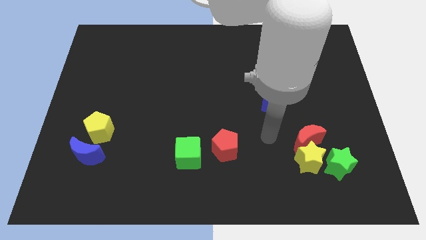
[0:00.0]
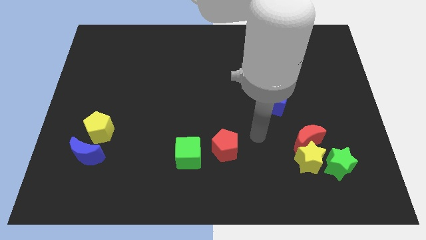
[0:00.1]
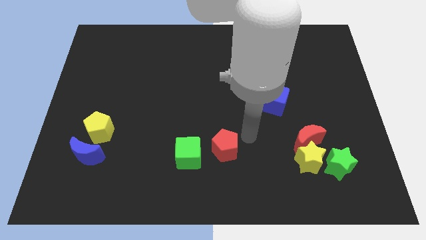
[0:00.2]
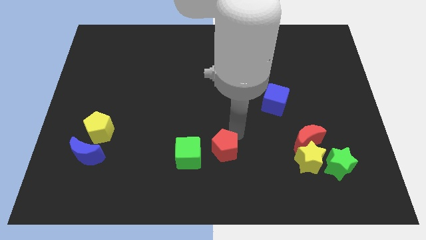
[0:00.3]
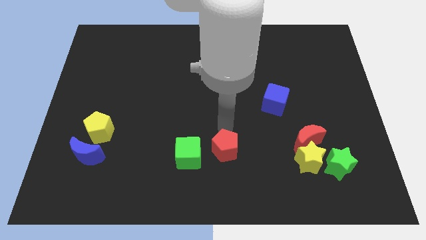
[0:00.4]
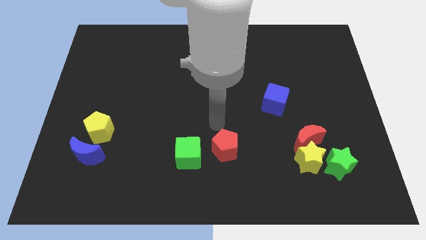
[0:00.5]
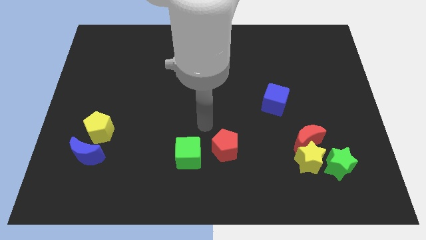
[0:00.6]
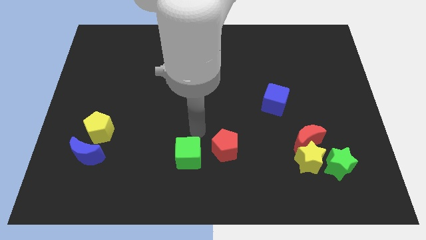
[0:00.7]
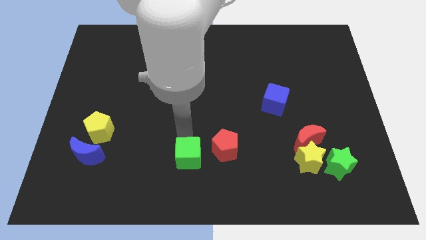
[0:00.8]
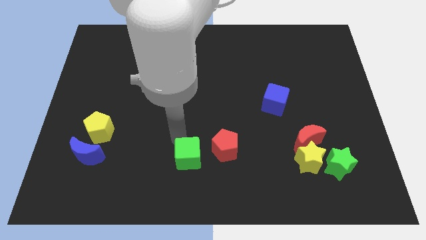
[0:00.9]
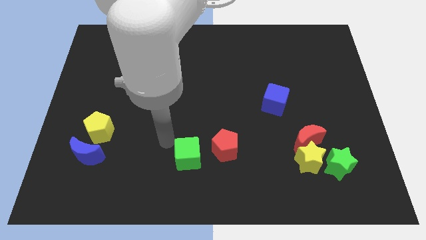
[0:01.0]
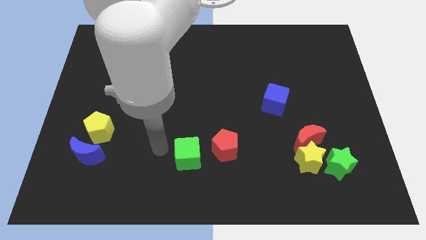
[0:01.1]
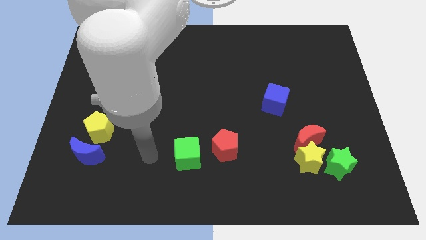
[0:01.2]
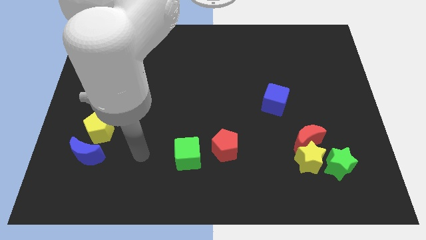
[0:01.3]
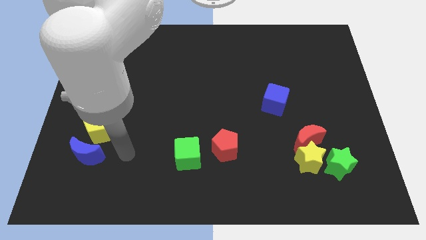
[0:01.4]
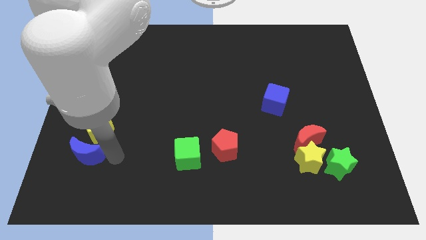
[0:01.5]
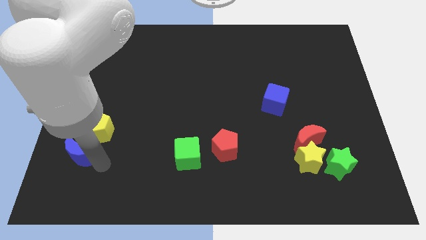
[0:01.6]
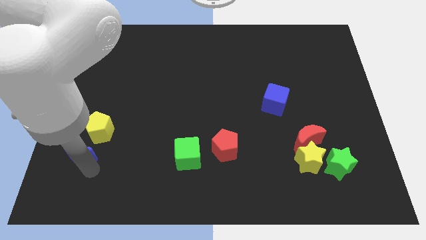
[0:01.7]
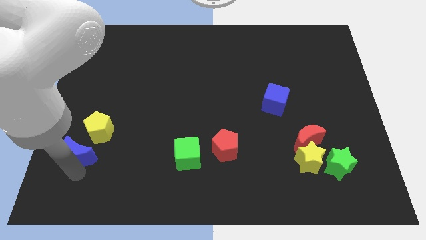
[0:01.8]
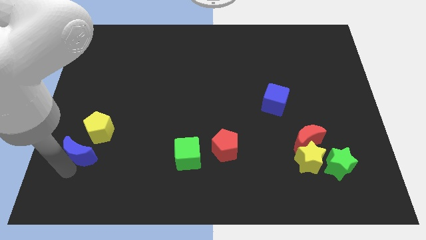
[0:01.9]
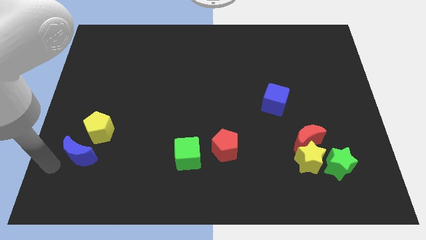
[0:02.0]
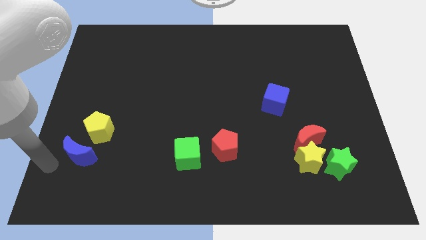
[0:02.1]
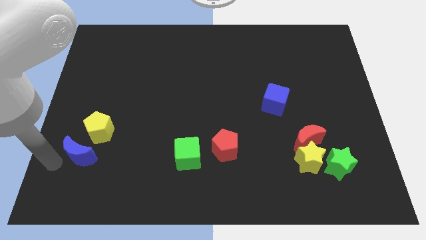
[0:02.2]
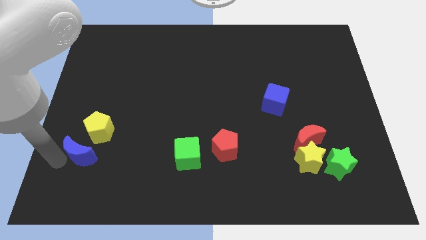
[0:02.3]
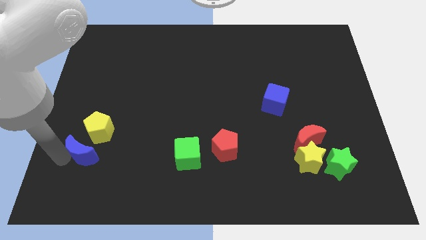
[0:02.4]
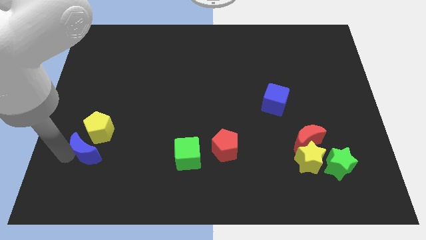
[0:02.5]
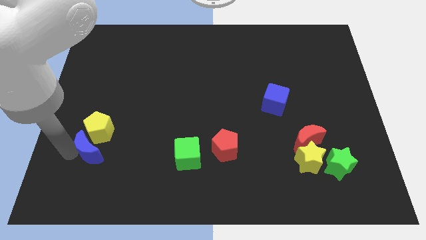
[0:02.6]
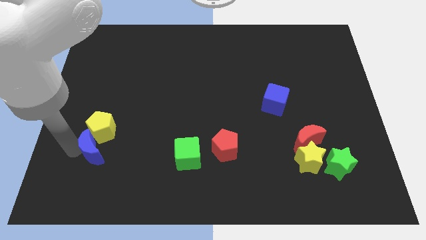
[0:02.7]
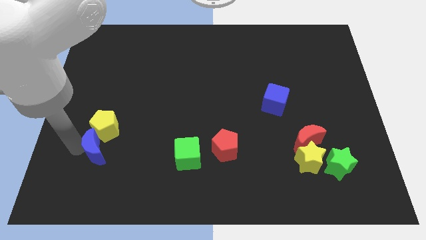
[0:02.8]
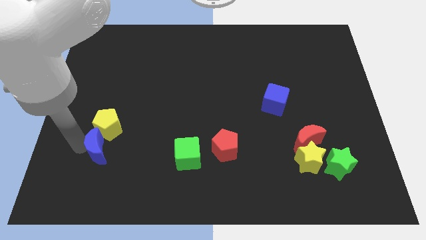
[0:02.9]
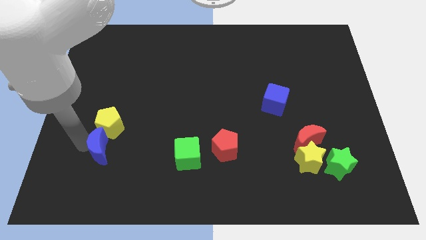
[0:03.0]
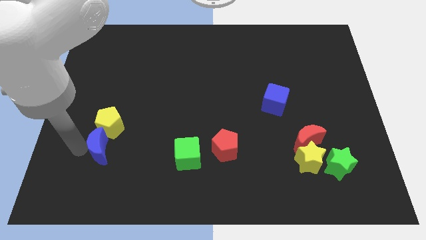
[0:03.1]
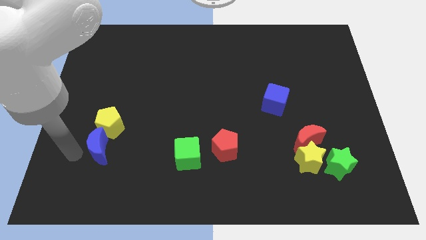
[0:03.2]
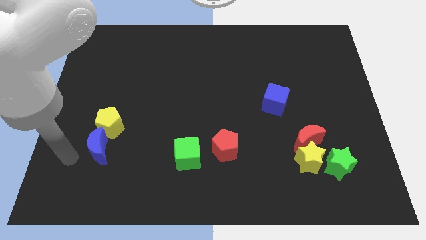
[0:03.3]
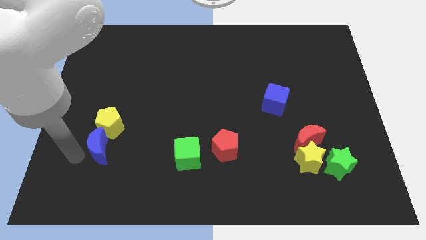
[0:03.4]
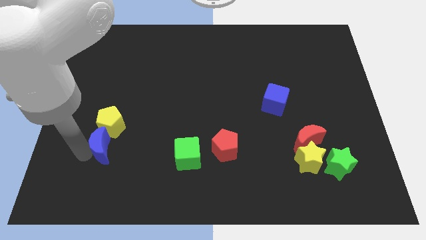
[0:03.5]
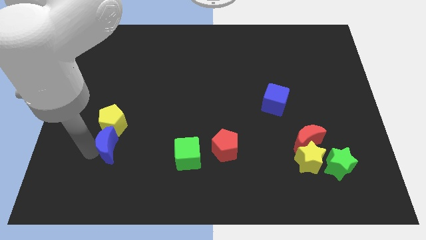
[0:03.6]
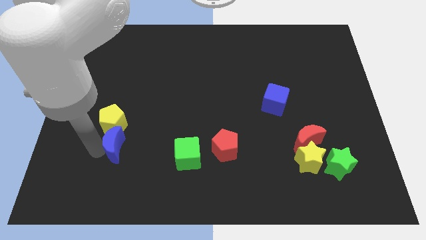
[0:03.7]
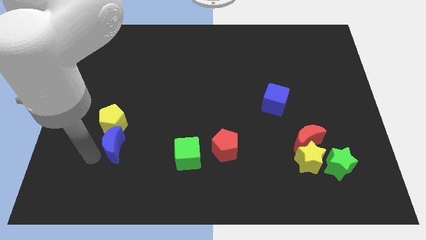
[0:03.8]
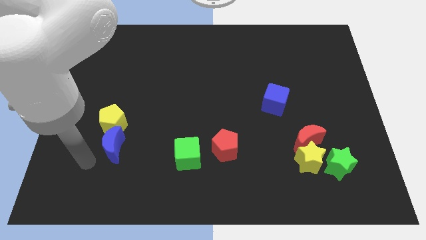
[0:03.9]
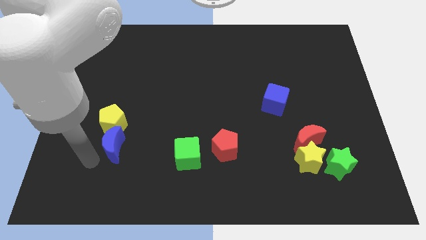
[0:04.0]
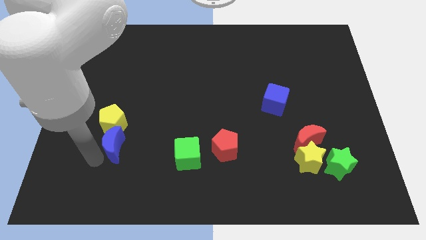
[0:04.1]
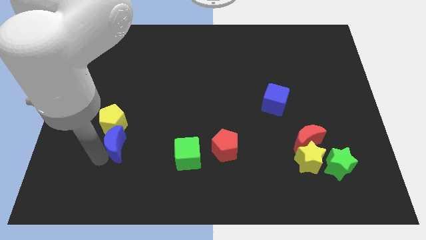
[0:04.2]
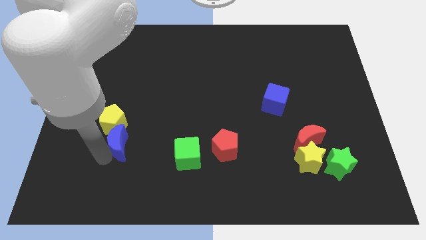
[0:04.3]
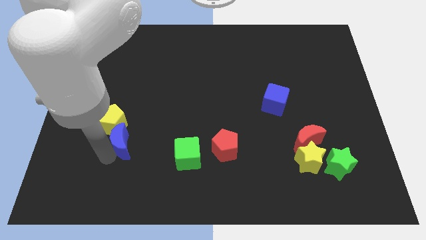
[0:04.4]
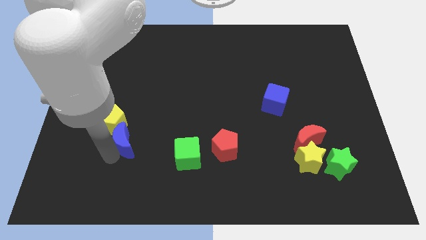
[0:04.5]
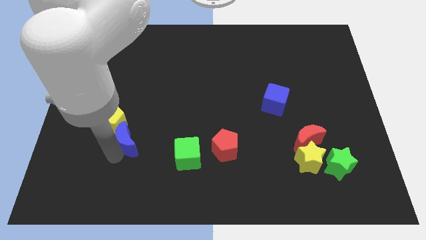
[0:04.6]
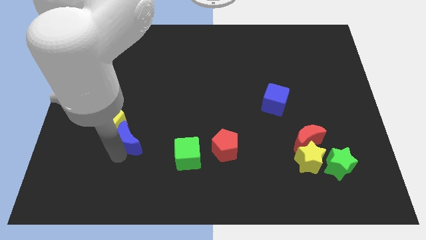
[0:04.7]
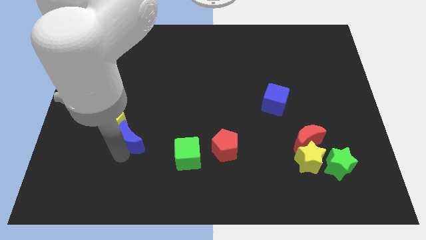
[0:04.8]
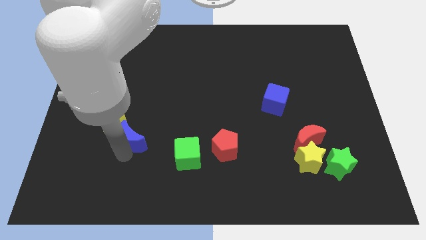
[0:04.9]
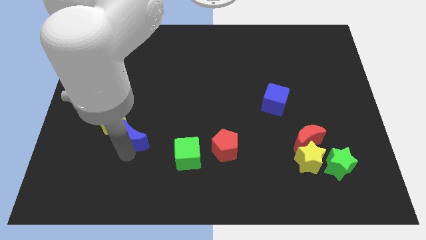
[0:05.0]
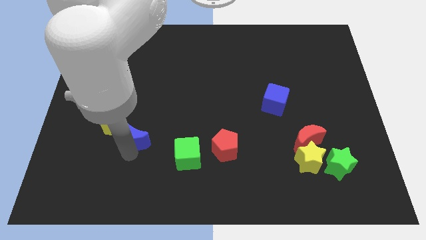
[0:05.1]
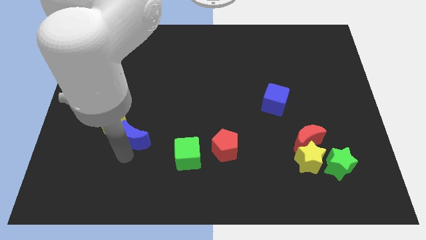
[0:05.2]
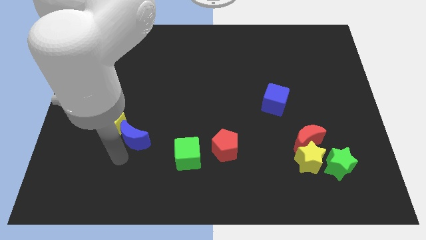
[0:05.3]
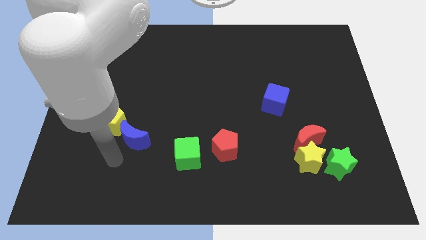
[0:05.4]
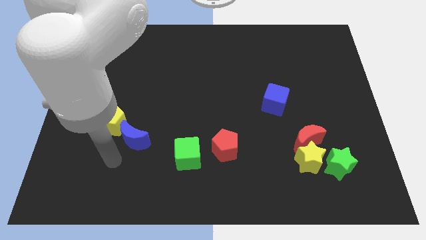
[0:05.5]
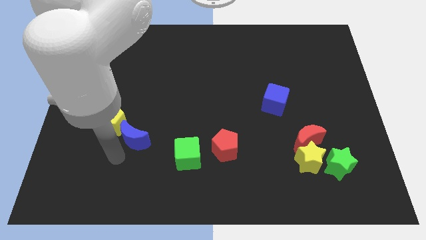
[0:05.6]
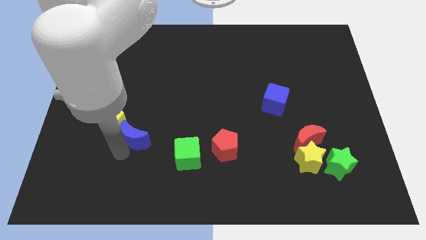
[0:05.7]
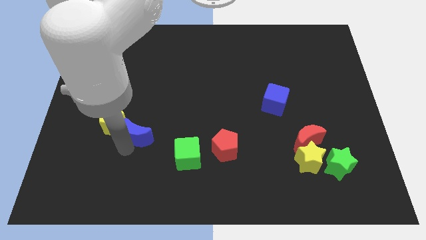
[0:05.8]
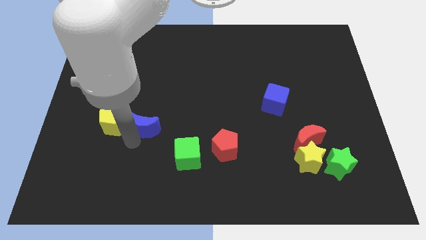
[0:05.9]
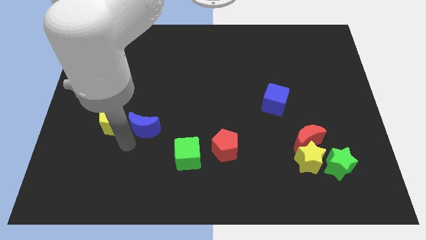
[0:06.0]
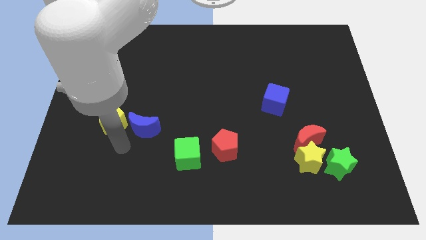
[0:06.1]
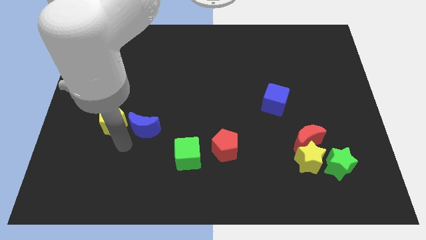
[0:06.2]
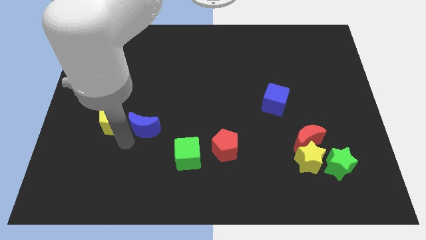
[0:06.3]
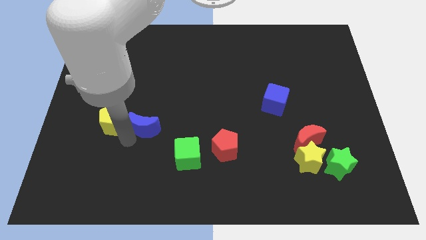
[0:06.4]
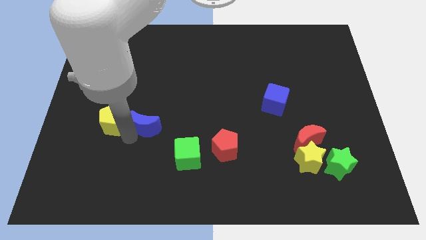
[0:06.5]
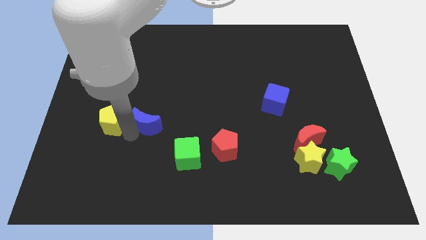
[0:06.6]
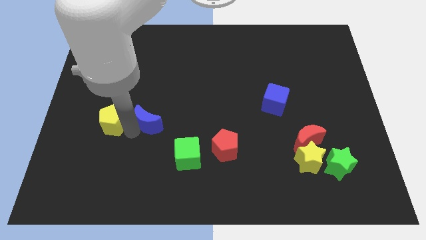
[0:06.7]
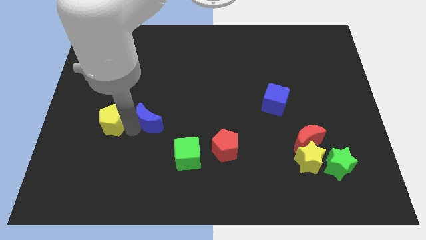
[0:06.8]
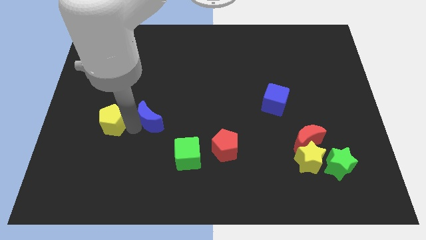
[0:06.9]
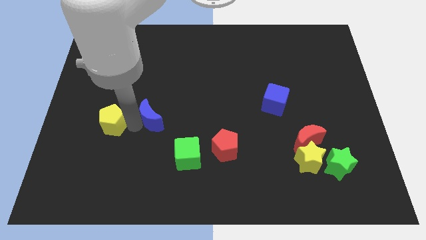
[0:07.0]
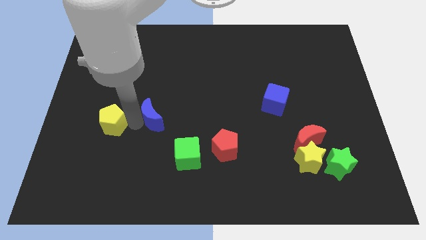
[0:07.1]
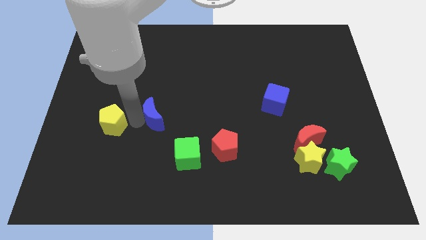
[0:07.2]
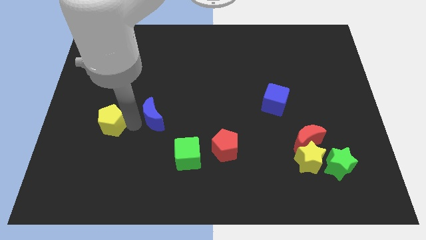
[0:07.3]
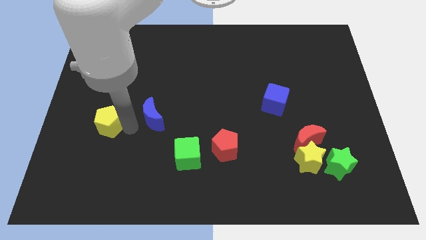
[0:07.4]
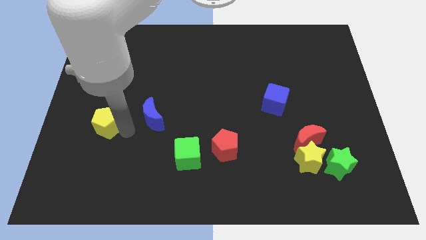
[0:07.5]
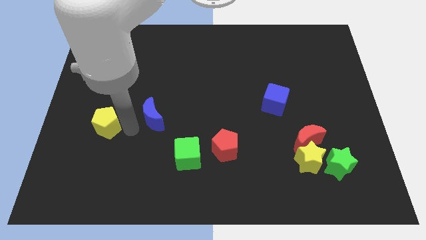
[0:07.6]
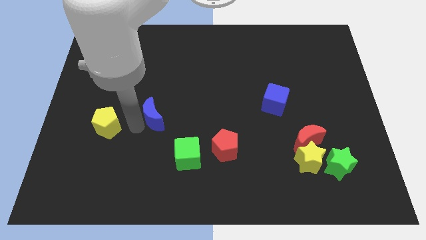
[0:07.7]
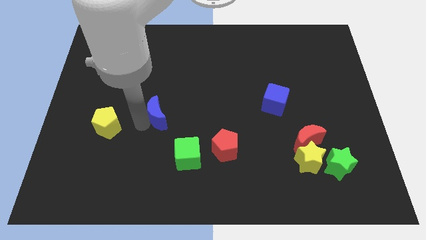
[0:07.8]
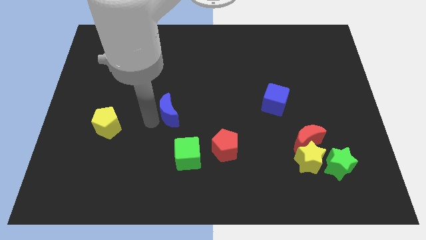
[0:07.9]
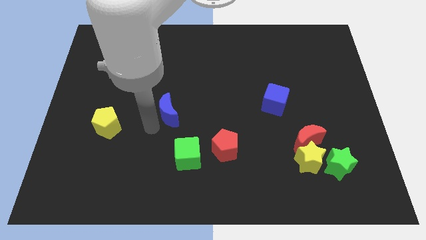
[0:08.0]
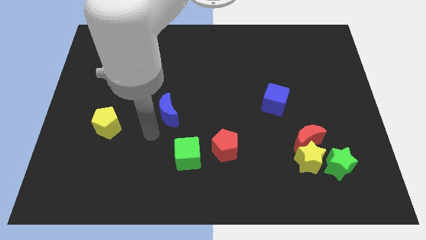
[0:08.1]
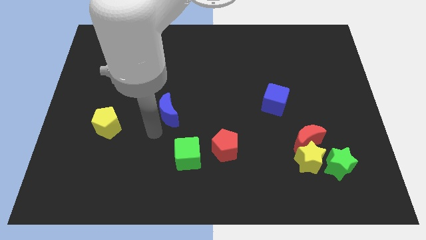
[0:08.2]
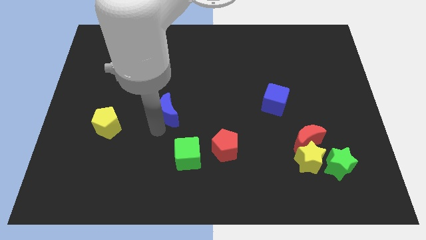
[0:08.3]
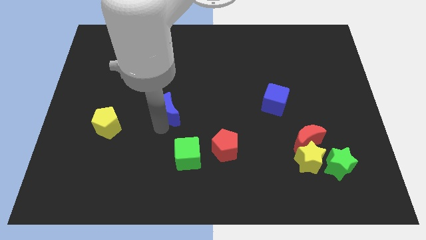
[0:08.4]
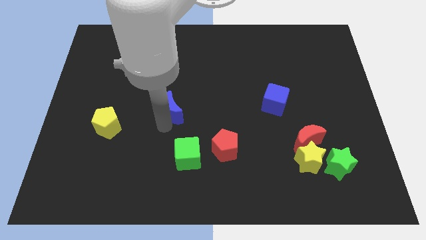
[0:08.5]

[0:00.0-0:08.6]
move the blue moon upwards and right diagonally

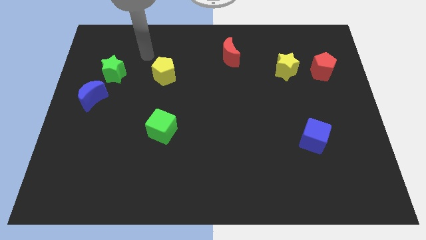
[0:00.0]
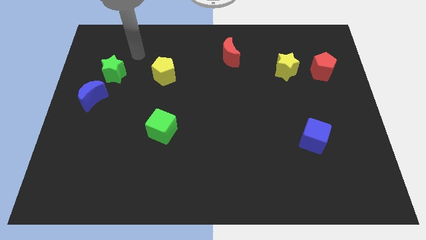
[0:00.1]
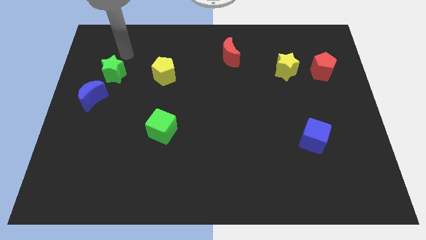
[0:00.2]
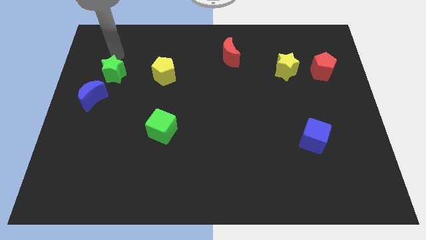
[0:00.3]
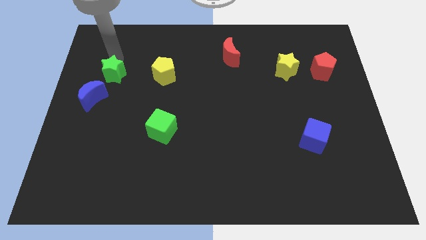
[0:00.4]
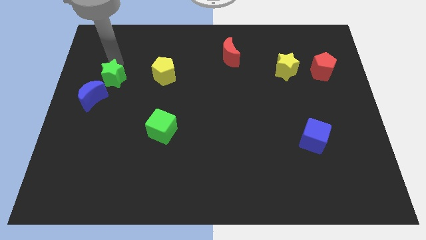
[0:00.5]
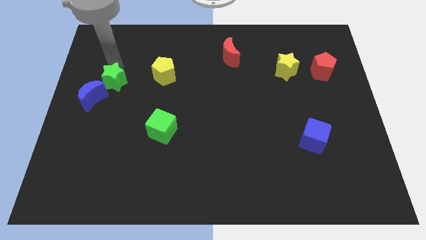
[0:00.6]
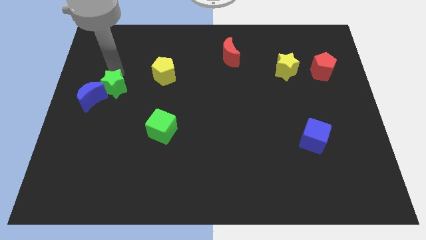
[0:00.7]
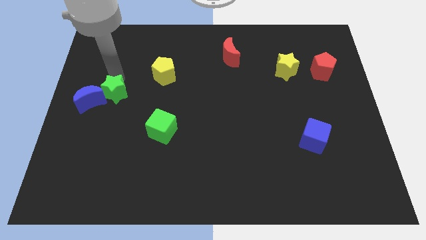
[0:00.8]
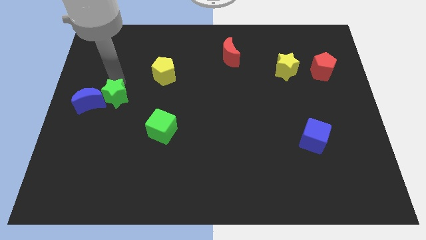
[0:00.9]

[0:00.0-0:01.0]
slide the green star downwards a little
